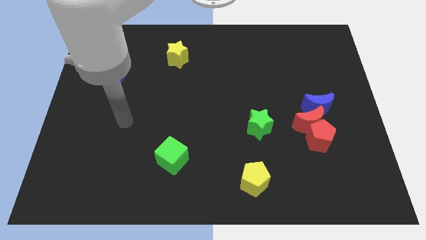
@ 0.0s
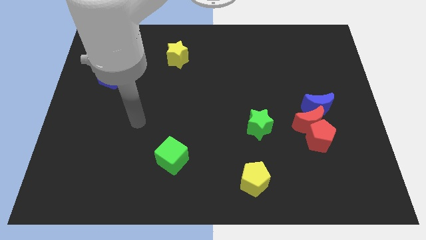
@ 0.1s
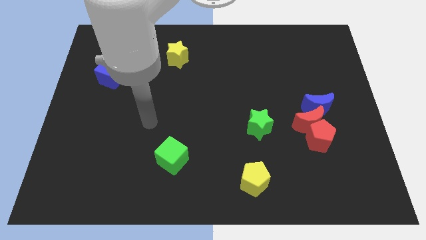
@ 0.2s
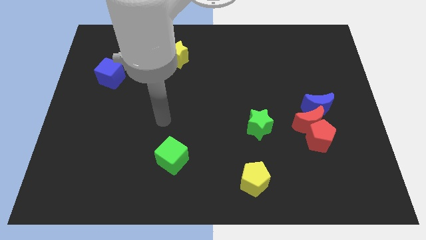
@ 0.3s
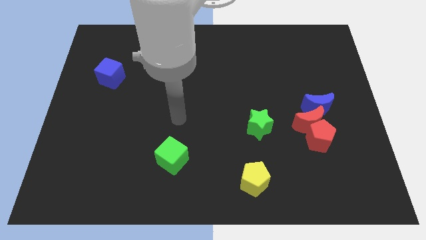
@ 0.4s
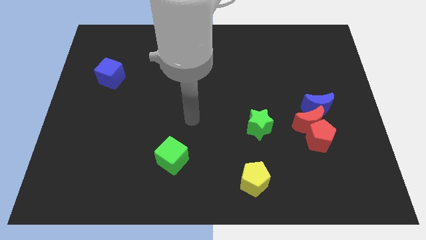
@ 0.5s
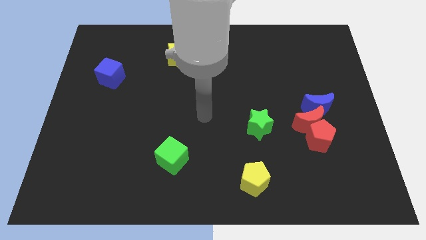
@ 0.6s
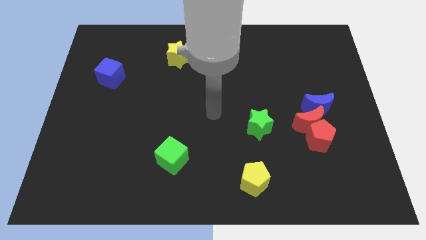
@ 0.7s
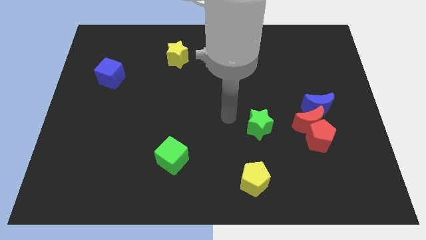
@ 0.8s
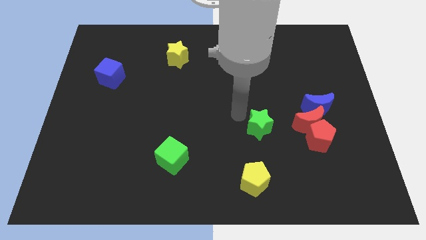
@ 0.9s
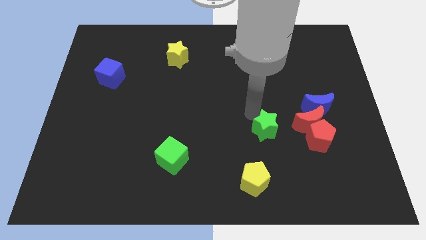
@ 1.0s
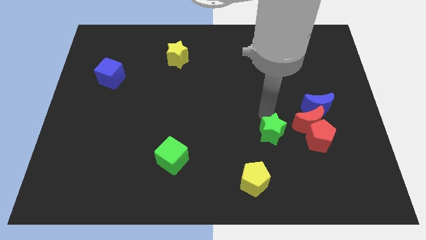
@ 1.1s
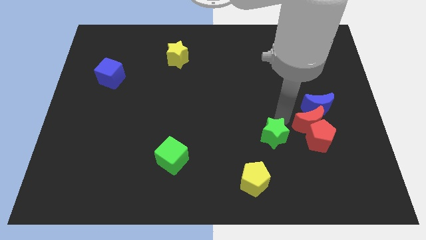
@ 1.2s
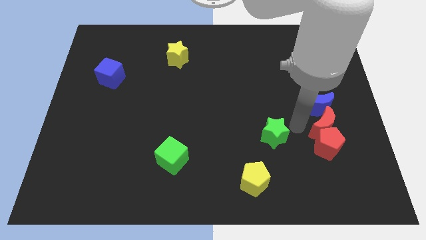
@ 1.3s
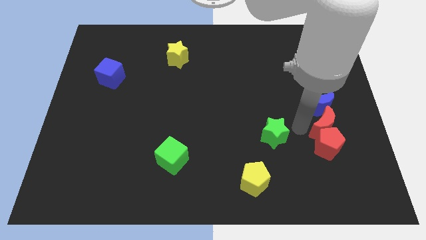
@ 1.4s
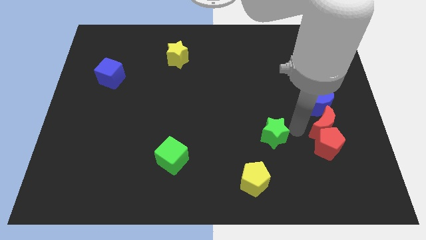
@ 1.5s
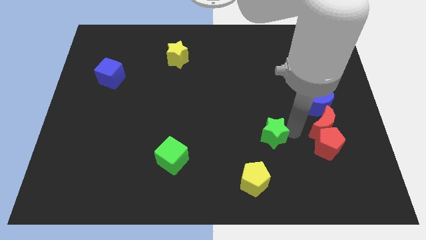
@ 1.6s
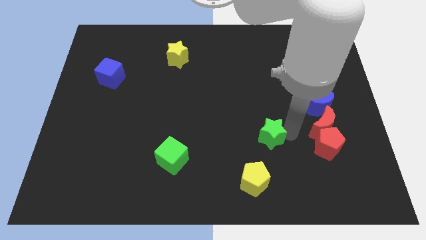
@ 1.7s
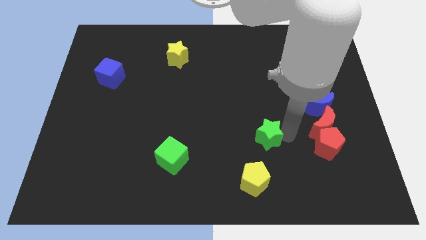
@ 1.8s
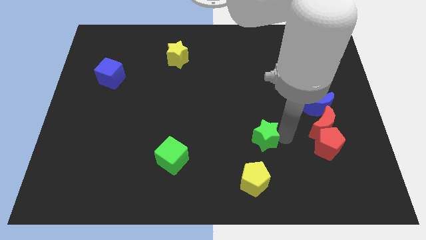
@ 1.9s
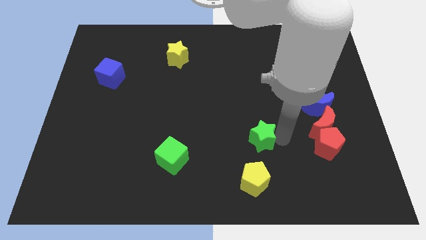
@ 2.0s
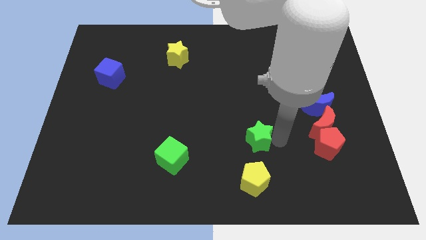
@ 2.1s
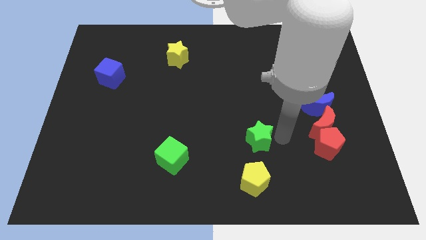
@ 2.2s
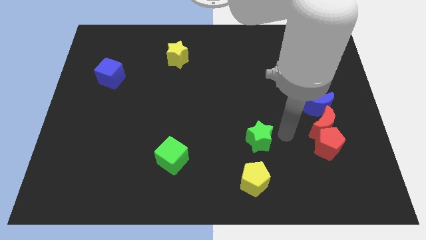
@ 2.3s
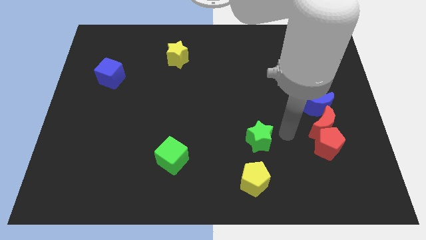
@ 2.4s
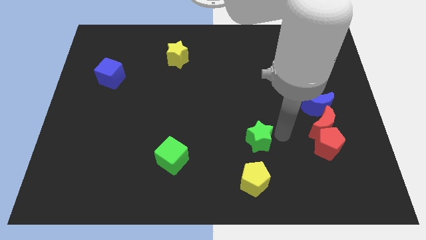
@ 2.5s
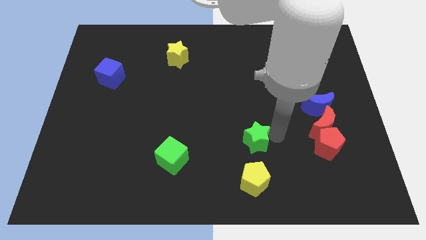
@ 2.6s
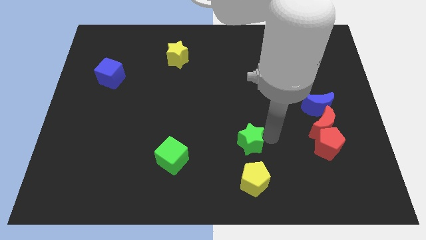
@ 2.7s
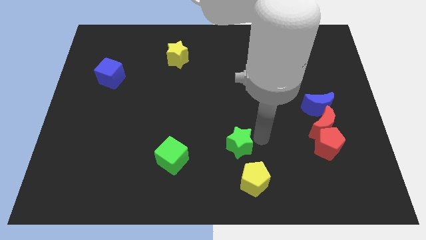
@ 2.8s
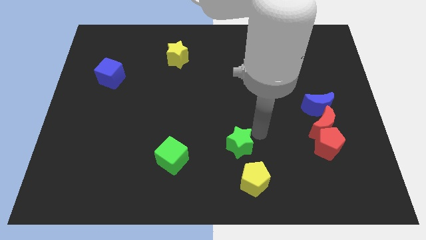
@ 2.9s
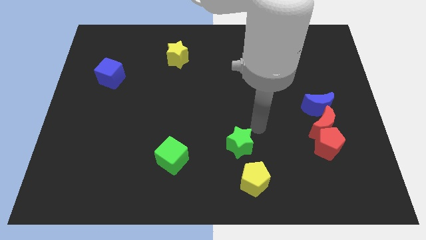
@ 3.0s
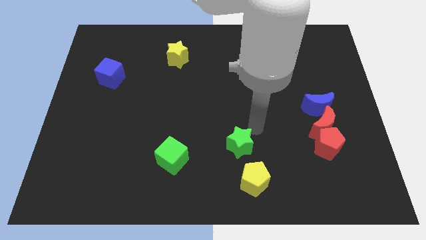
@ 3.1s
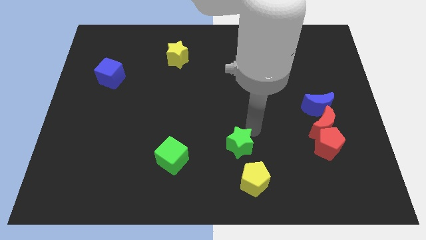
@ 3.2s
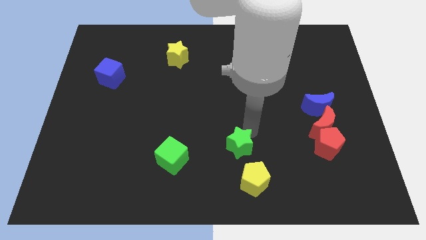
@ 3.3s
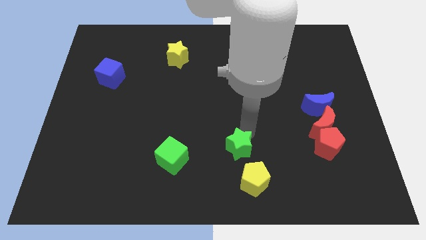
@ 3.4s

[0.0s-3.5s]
push the green star down and to the left a bit

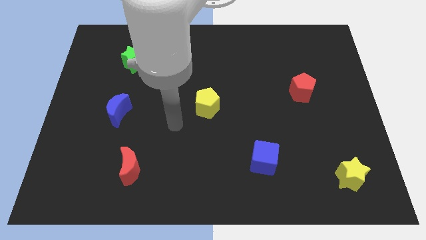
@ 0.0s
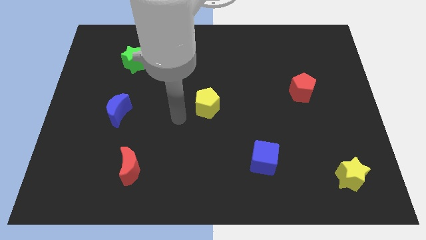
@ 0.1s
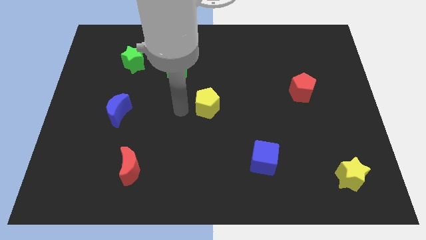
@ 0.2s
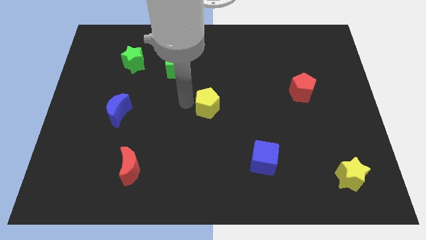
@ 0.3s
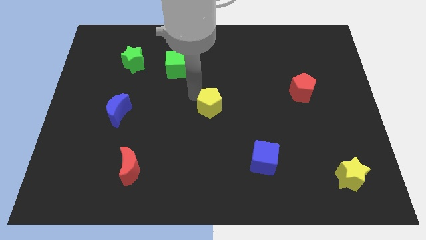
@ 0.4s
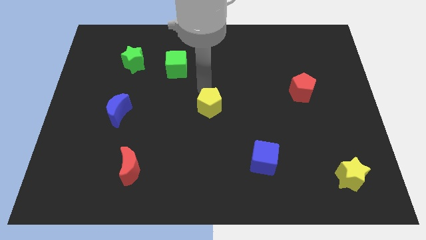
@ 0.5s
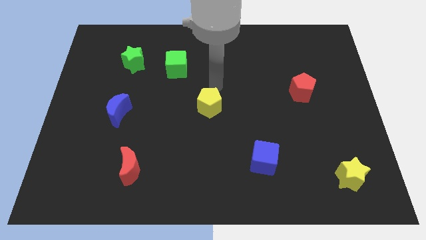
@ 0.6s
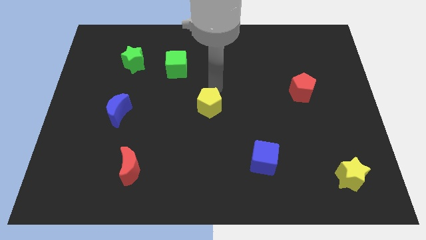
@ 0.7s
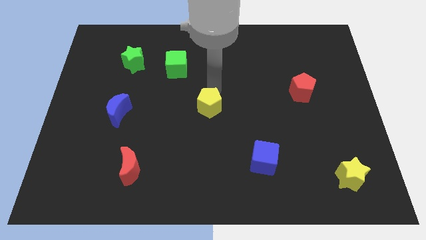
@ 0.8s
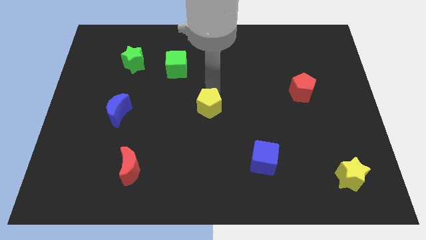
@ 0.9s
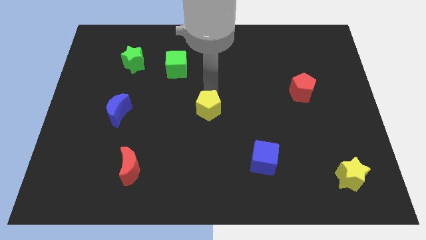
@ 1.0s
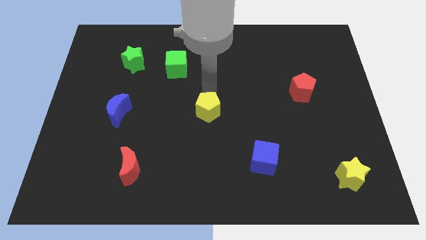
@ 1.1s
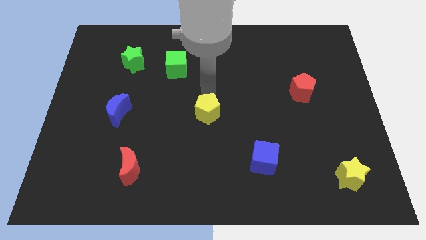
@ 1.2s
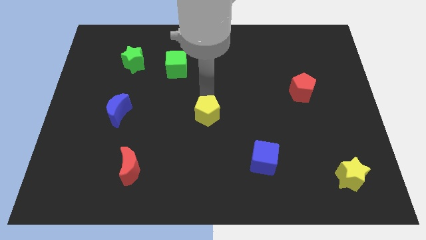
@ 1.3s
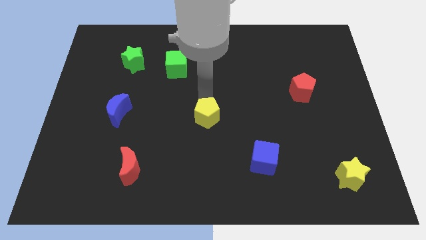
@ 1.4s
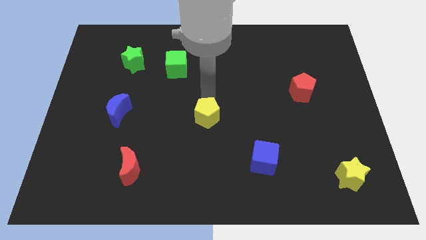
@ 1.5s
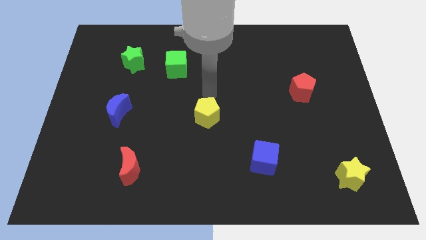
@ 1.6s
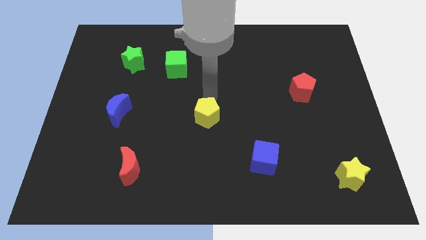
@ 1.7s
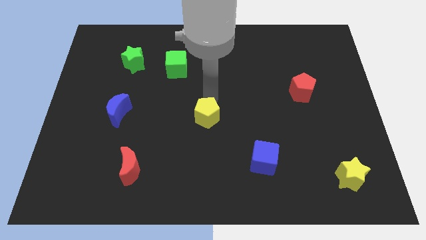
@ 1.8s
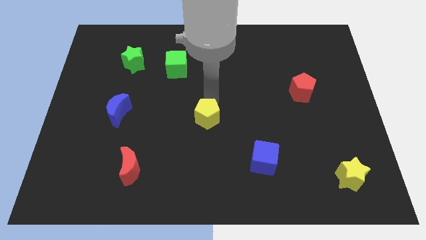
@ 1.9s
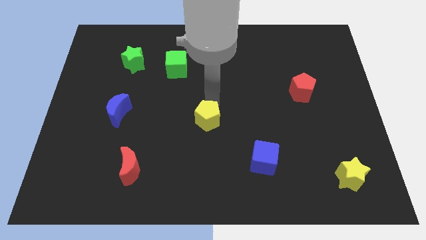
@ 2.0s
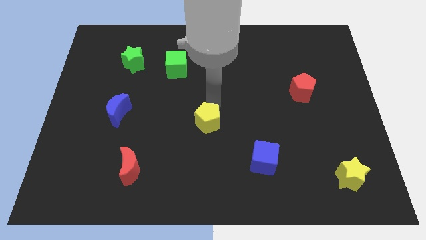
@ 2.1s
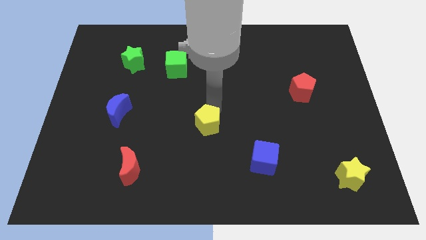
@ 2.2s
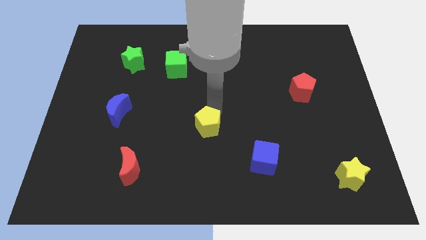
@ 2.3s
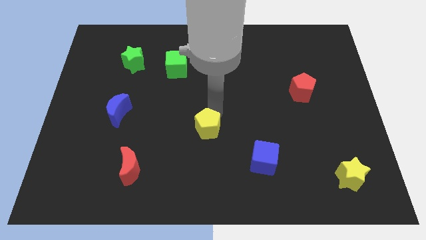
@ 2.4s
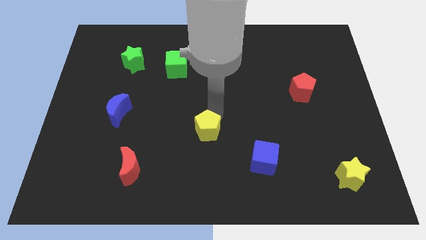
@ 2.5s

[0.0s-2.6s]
push the yellow pentagon somewhat down

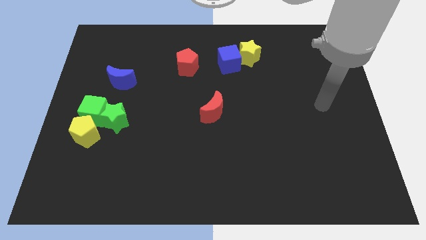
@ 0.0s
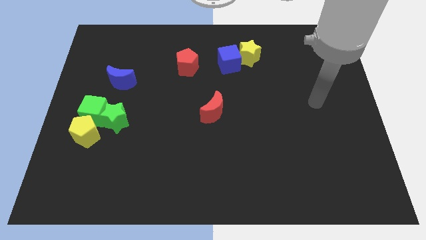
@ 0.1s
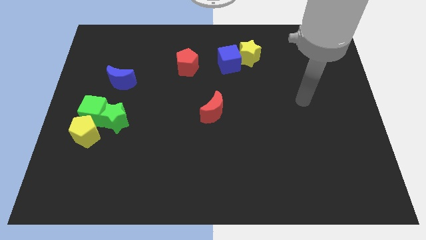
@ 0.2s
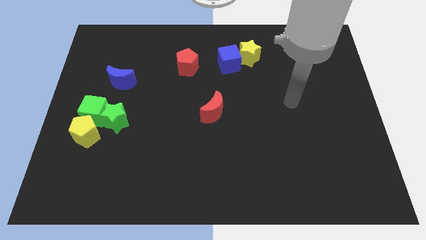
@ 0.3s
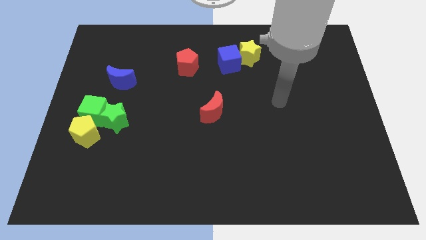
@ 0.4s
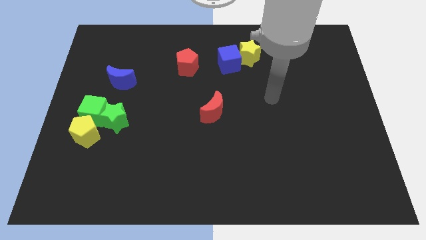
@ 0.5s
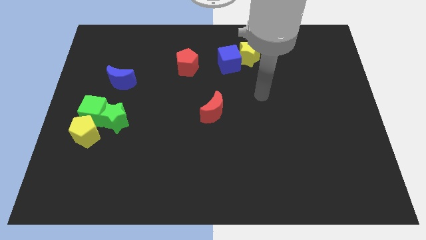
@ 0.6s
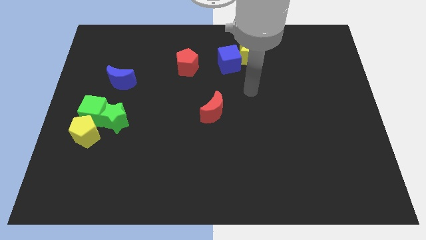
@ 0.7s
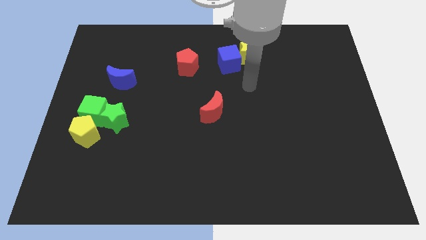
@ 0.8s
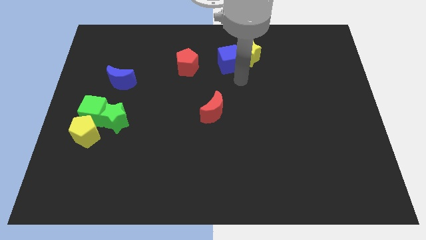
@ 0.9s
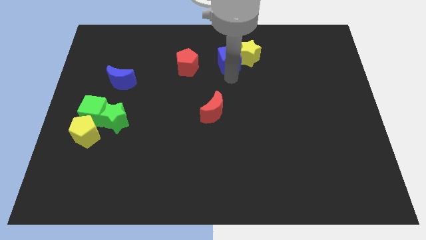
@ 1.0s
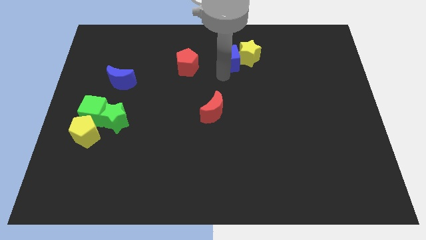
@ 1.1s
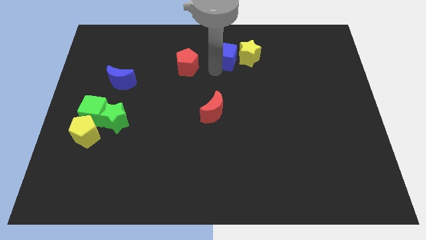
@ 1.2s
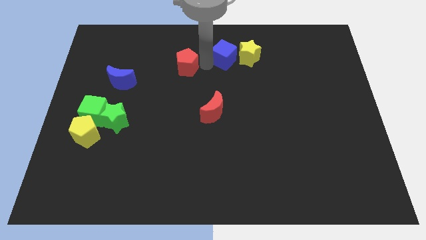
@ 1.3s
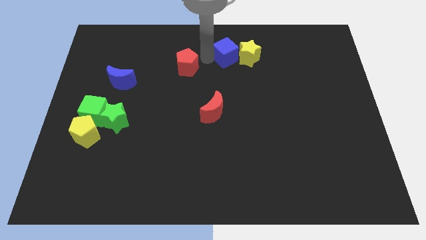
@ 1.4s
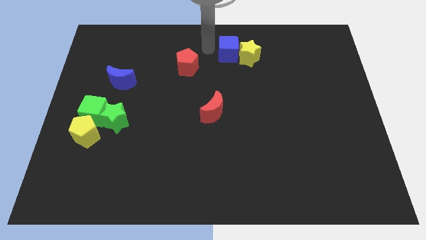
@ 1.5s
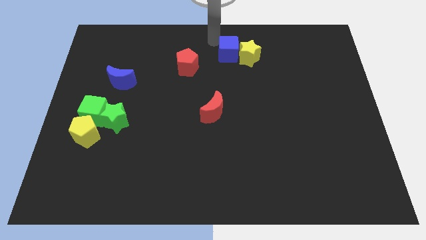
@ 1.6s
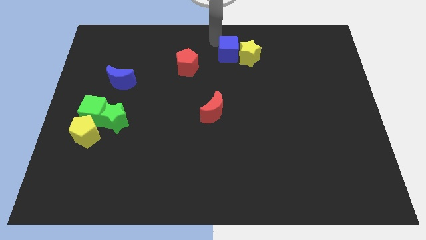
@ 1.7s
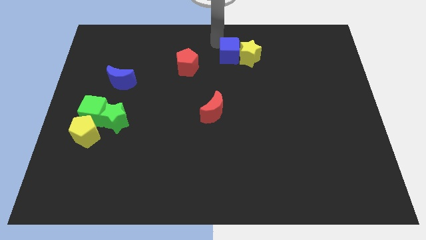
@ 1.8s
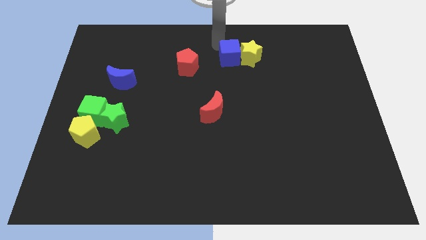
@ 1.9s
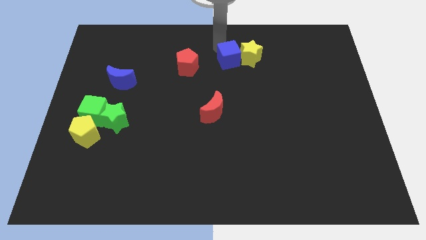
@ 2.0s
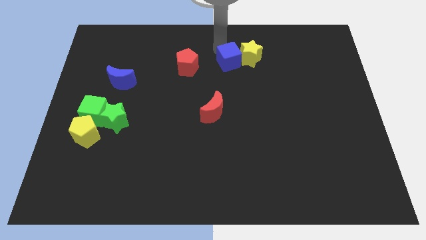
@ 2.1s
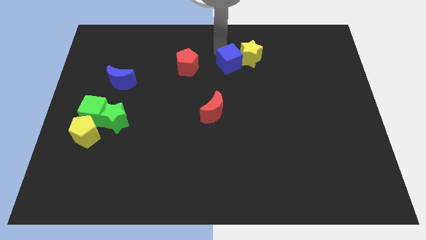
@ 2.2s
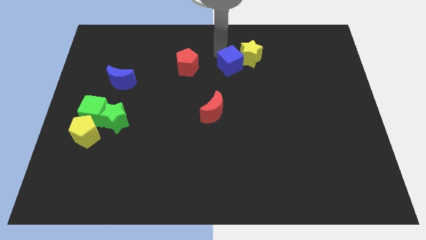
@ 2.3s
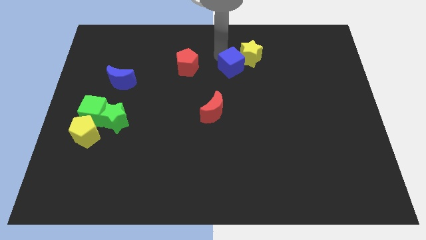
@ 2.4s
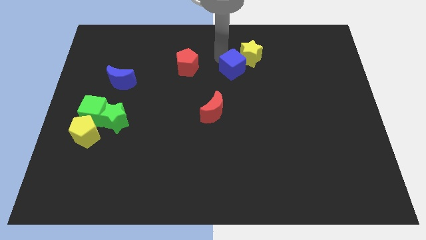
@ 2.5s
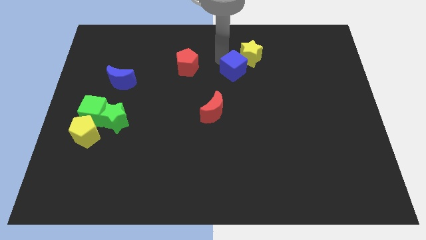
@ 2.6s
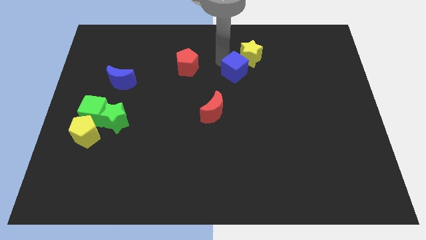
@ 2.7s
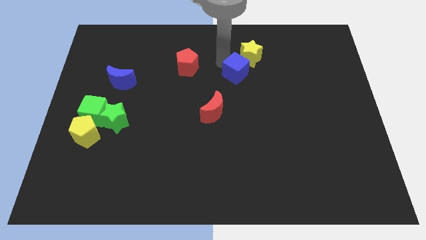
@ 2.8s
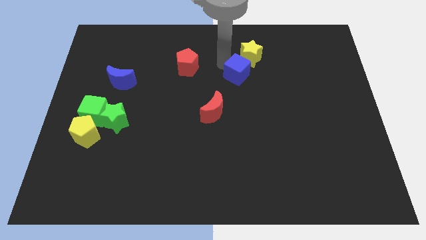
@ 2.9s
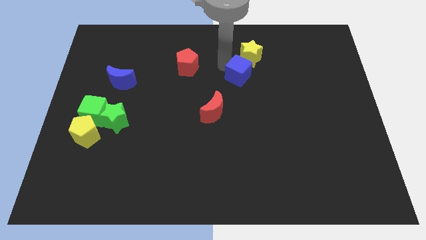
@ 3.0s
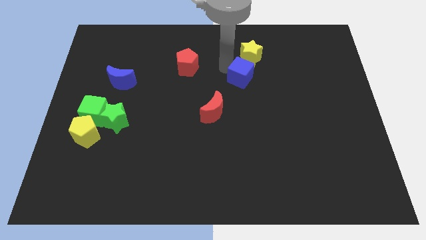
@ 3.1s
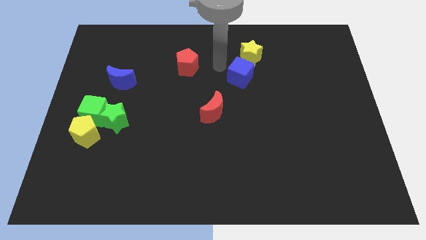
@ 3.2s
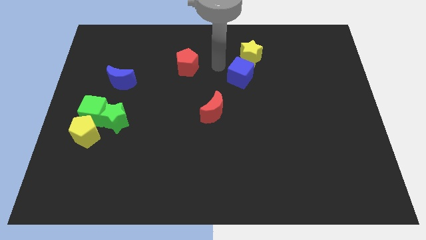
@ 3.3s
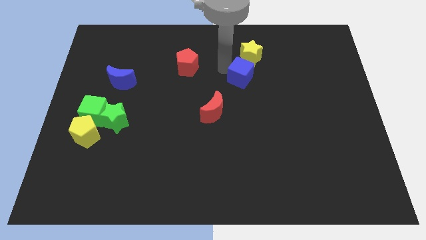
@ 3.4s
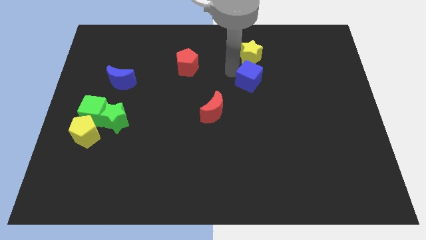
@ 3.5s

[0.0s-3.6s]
slide the blue cube diagonally down and right a little
